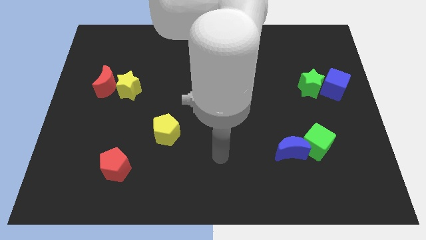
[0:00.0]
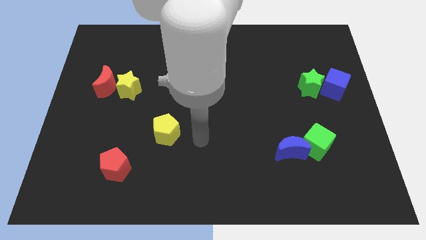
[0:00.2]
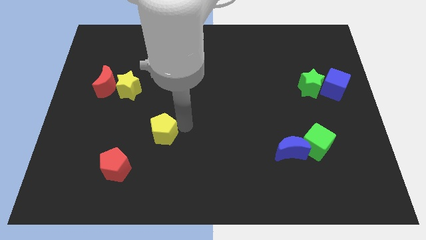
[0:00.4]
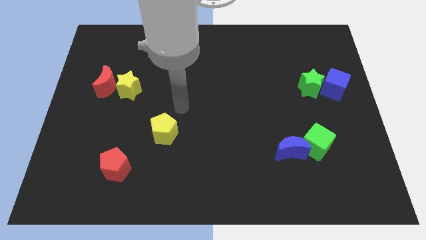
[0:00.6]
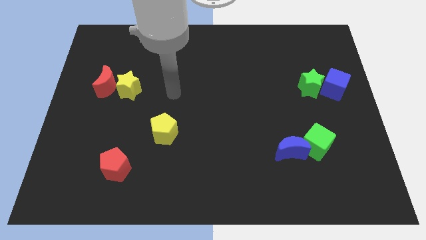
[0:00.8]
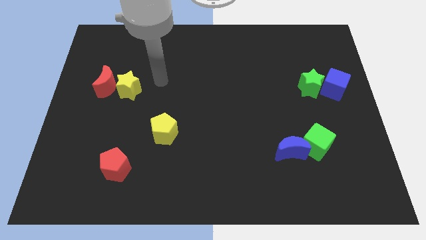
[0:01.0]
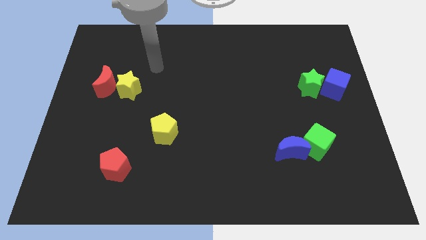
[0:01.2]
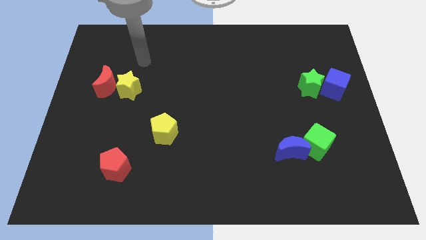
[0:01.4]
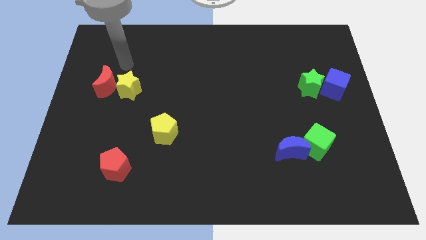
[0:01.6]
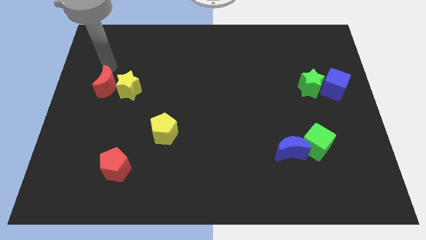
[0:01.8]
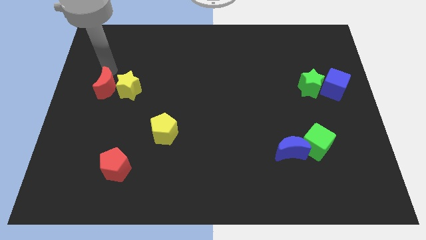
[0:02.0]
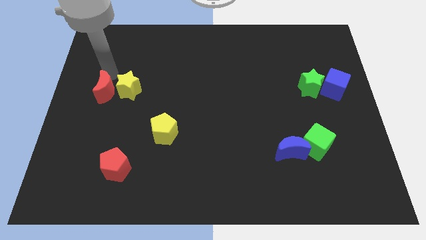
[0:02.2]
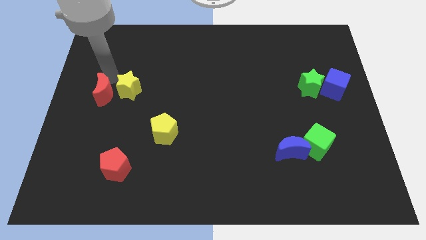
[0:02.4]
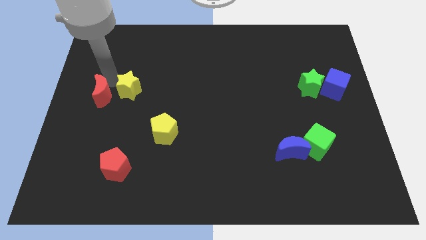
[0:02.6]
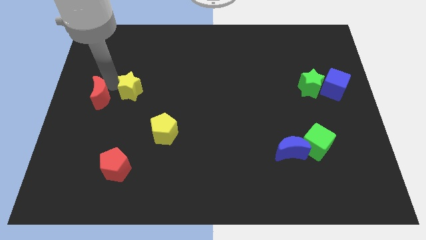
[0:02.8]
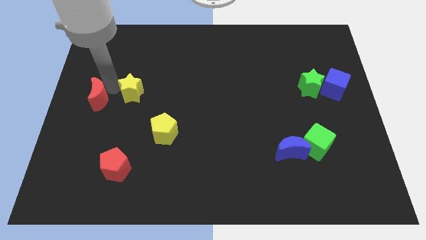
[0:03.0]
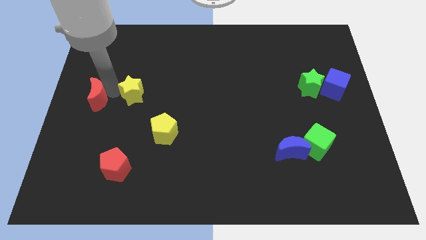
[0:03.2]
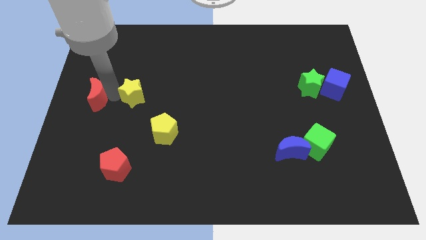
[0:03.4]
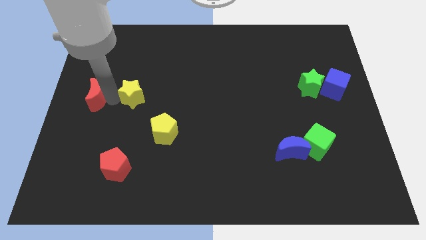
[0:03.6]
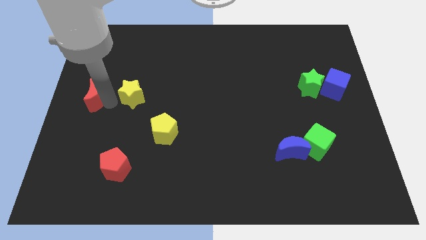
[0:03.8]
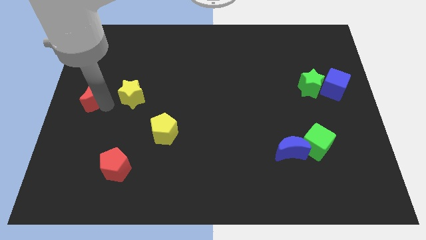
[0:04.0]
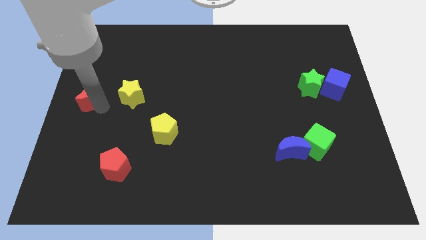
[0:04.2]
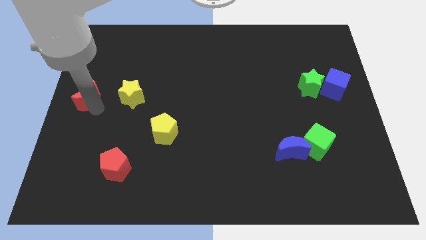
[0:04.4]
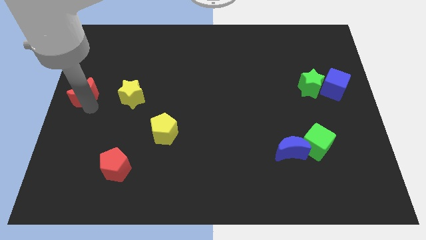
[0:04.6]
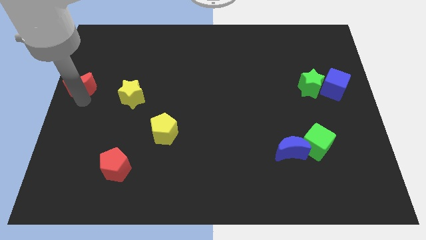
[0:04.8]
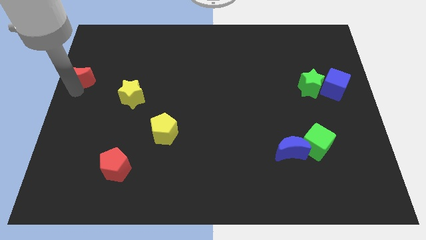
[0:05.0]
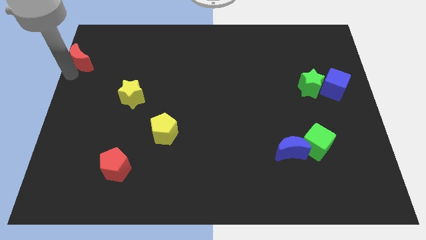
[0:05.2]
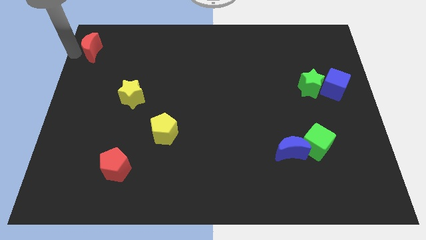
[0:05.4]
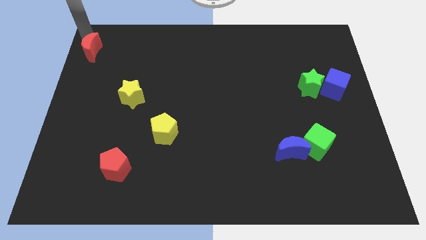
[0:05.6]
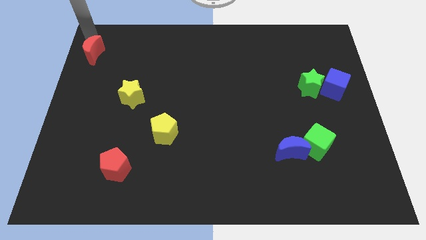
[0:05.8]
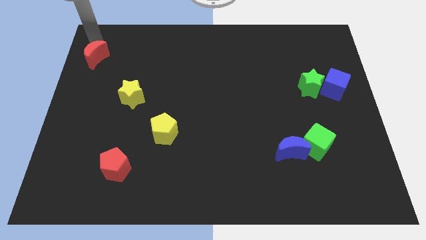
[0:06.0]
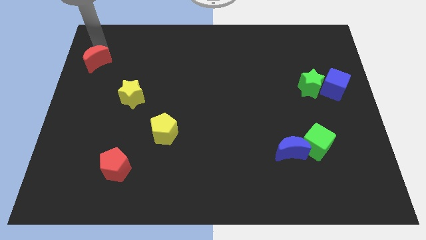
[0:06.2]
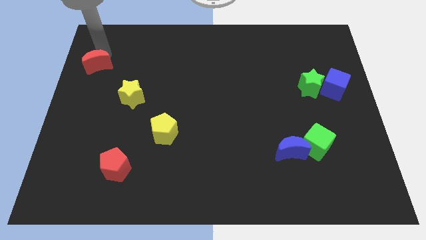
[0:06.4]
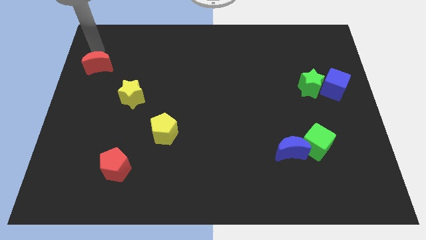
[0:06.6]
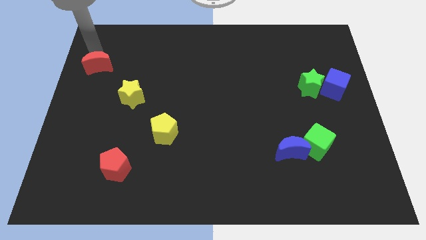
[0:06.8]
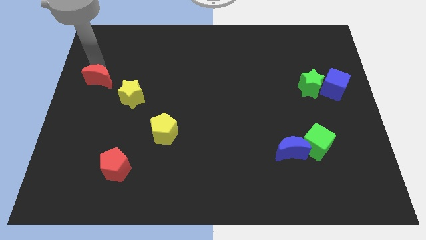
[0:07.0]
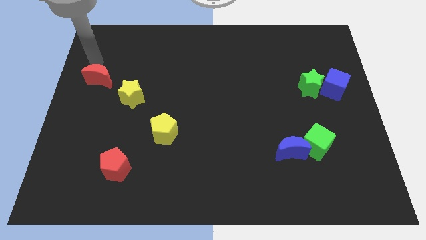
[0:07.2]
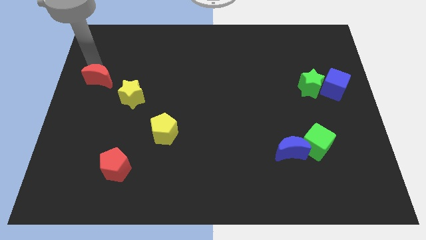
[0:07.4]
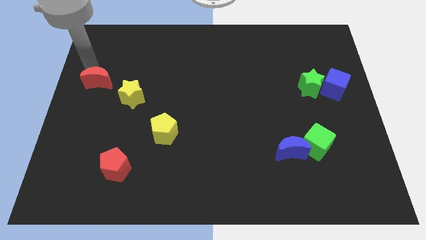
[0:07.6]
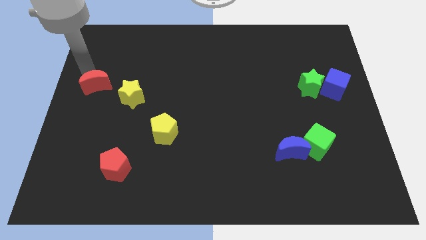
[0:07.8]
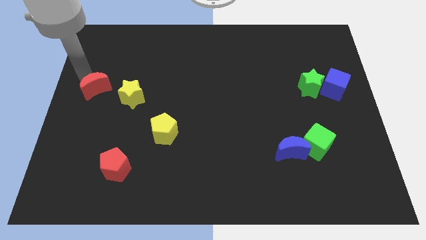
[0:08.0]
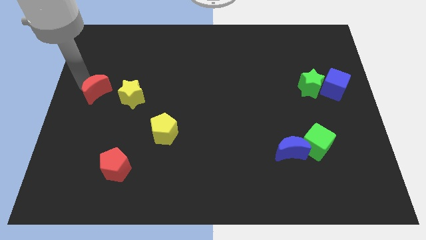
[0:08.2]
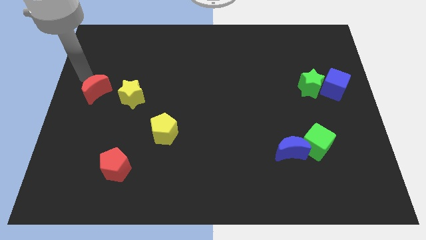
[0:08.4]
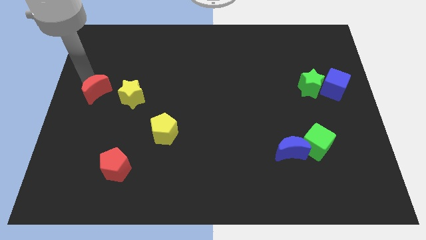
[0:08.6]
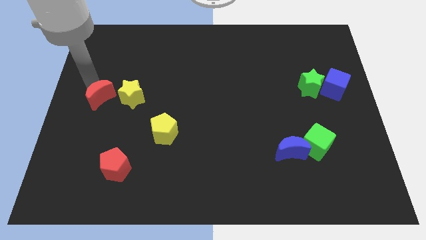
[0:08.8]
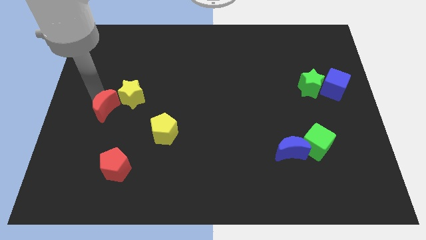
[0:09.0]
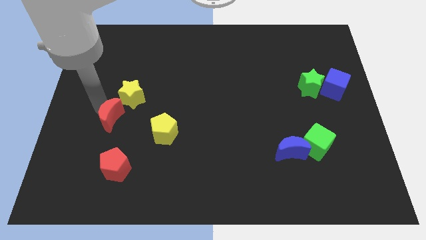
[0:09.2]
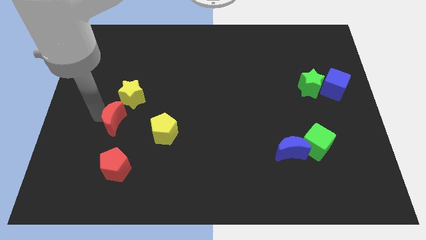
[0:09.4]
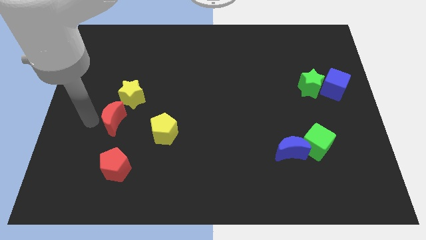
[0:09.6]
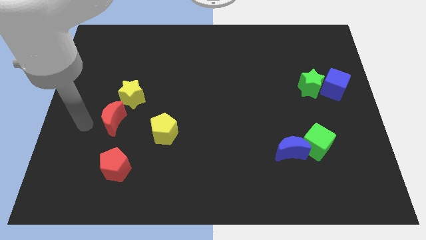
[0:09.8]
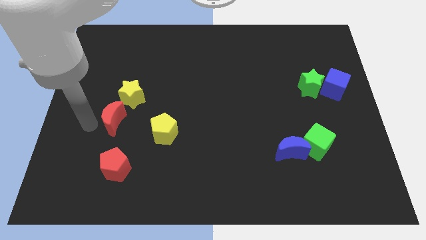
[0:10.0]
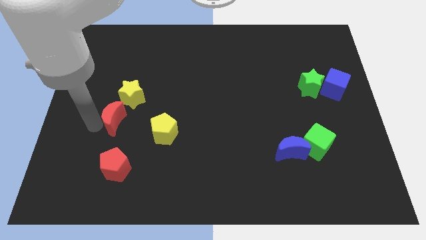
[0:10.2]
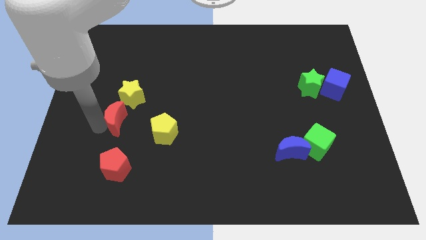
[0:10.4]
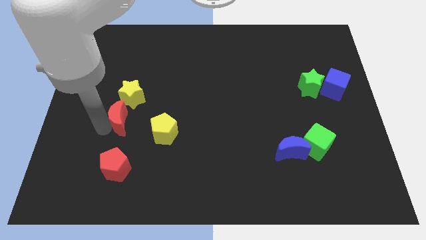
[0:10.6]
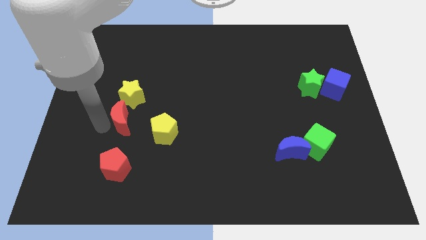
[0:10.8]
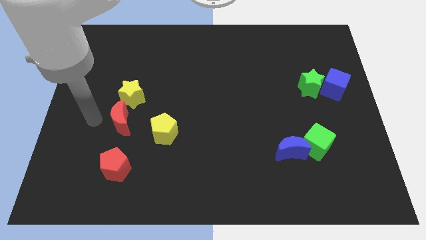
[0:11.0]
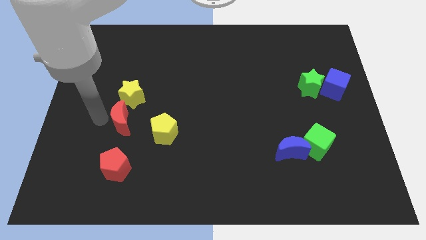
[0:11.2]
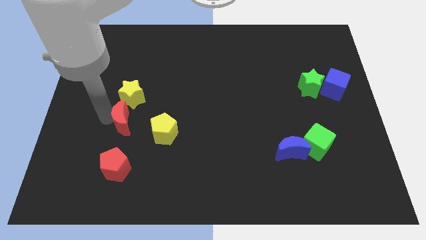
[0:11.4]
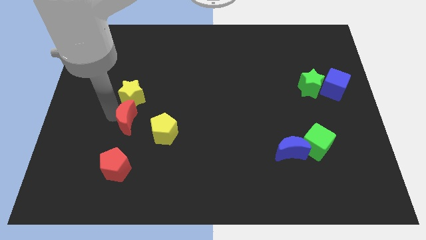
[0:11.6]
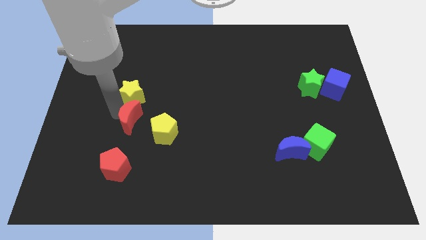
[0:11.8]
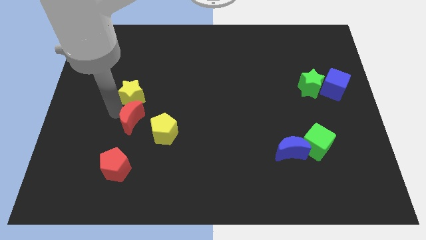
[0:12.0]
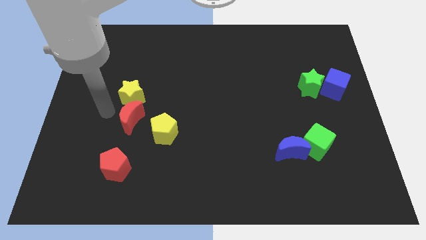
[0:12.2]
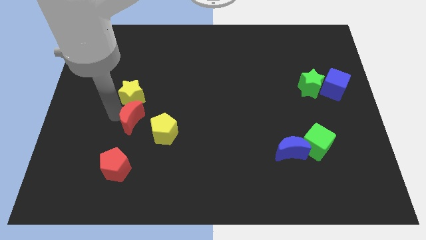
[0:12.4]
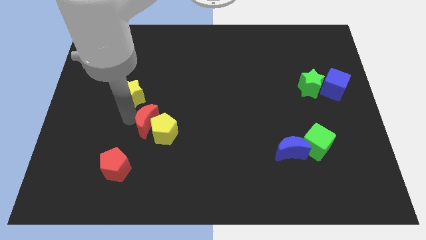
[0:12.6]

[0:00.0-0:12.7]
push the red moon next to the yellow pentagon
